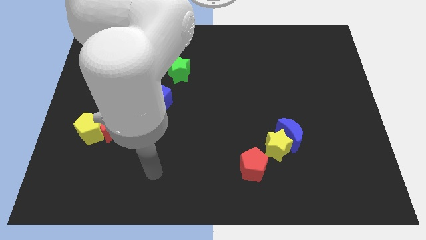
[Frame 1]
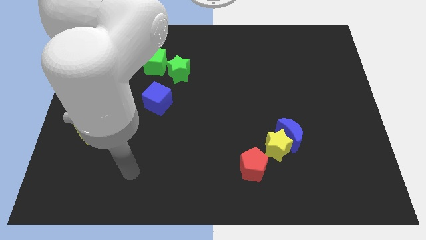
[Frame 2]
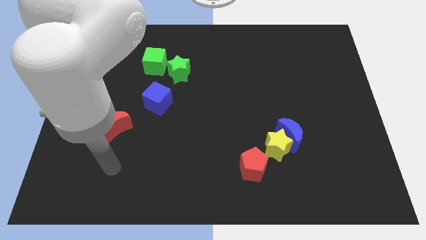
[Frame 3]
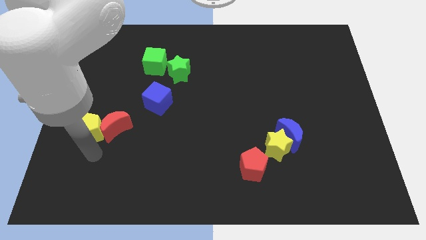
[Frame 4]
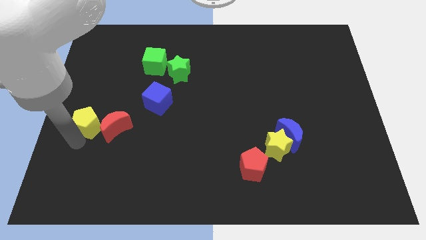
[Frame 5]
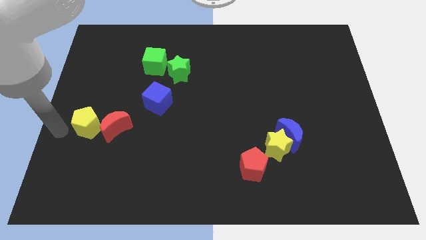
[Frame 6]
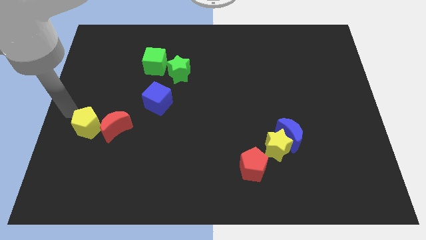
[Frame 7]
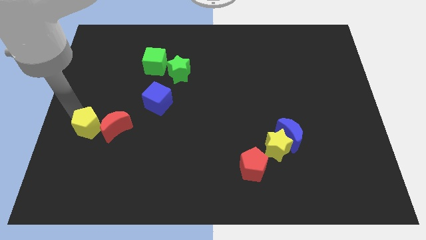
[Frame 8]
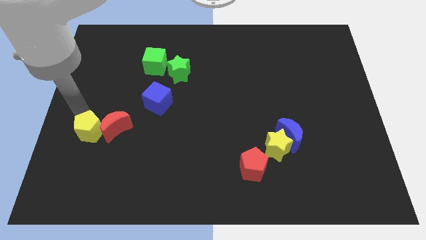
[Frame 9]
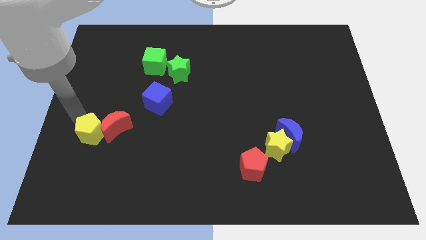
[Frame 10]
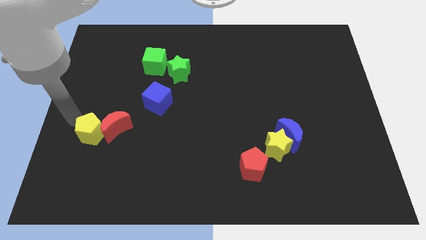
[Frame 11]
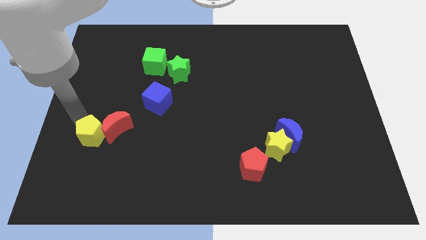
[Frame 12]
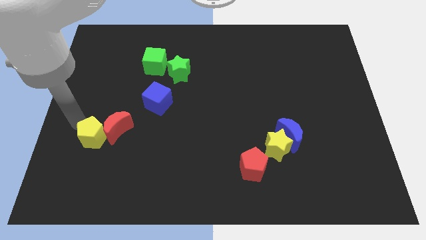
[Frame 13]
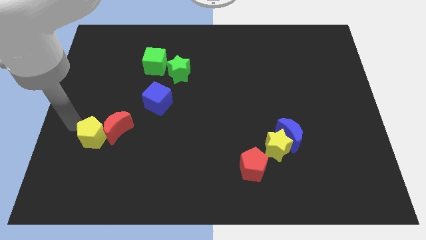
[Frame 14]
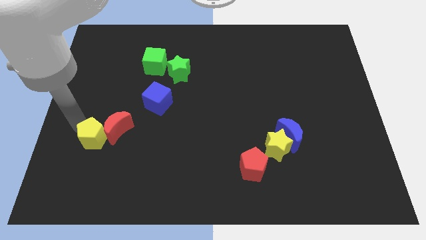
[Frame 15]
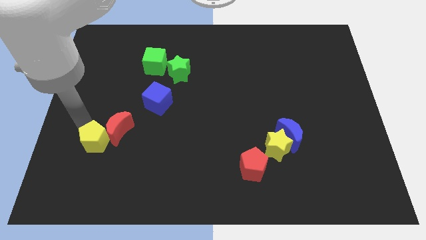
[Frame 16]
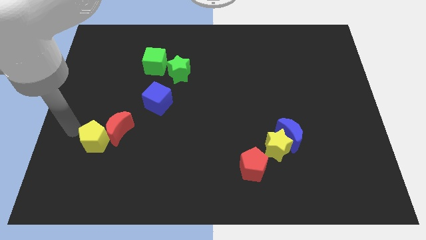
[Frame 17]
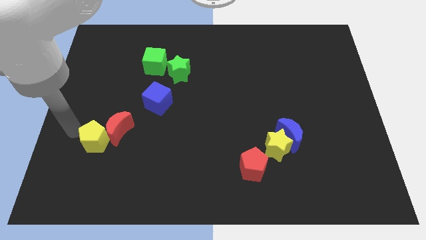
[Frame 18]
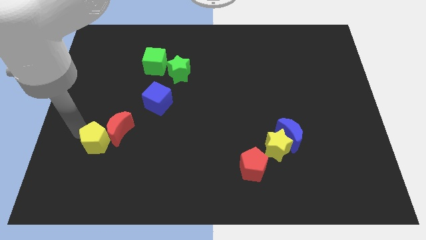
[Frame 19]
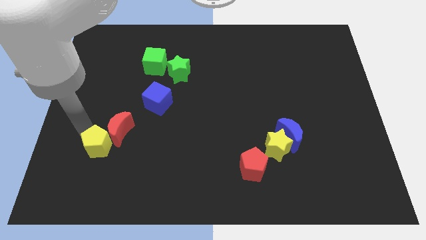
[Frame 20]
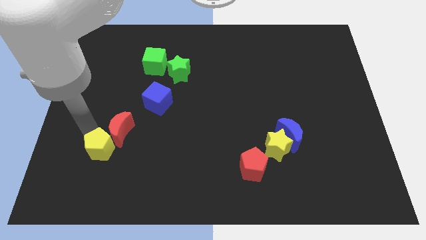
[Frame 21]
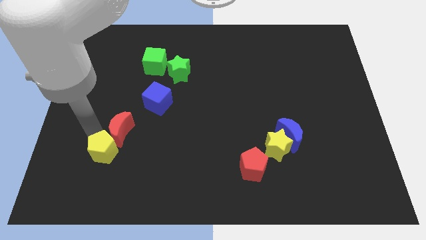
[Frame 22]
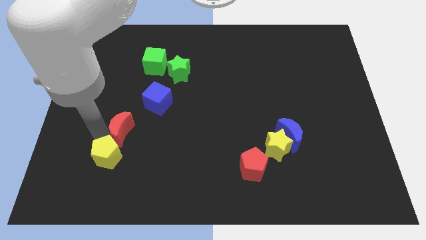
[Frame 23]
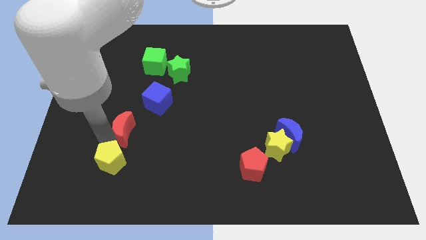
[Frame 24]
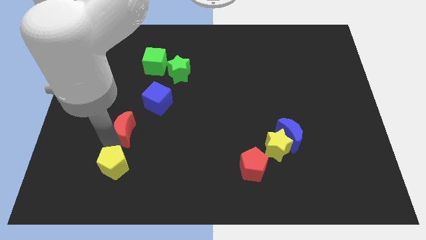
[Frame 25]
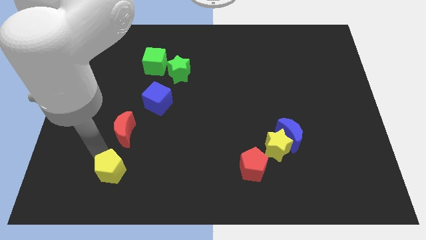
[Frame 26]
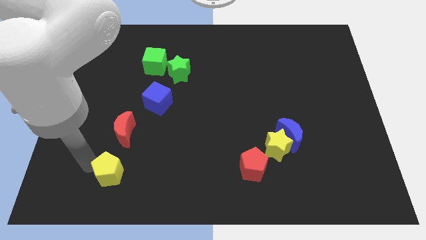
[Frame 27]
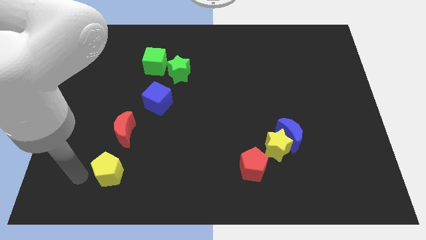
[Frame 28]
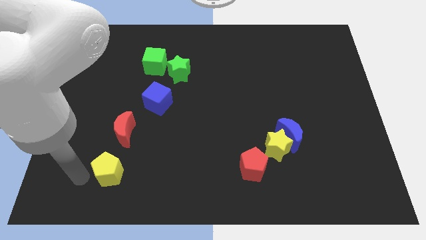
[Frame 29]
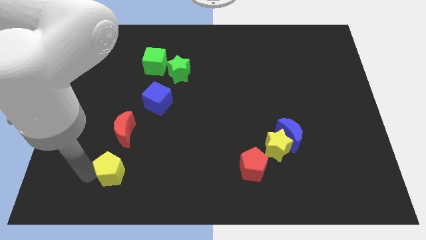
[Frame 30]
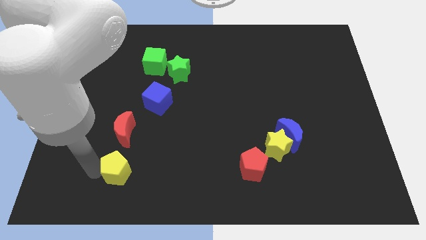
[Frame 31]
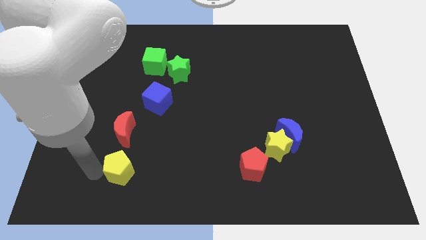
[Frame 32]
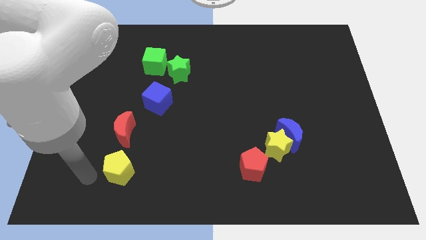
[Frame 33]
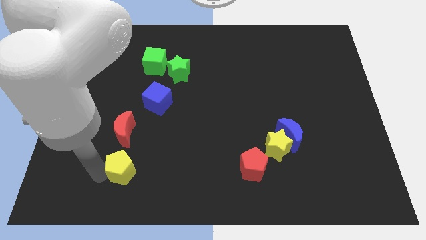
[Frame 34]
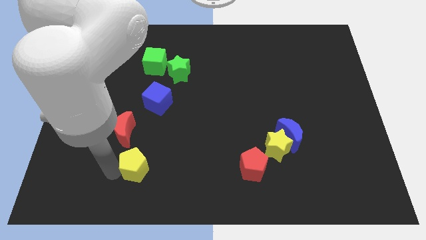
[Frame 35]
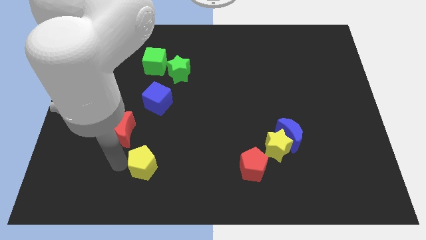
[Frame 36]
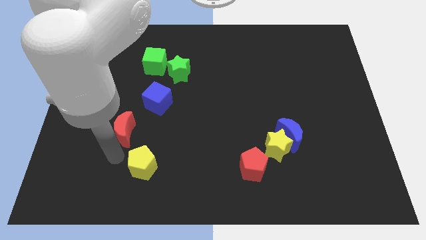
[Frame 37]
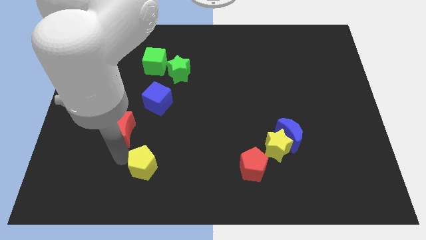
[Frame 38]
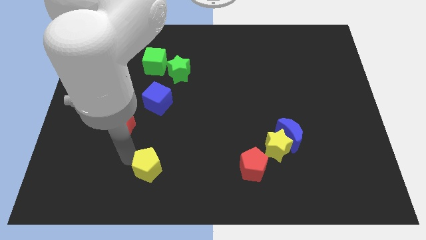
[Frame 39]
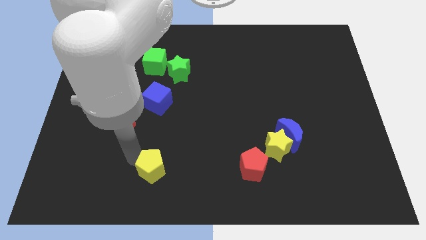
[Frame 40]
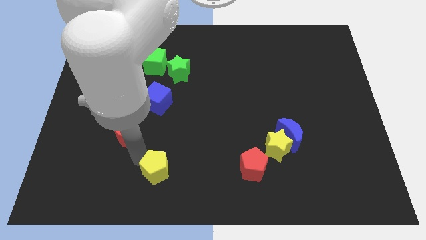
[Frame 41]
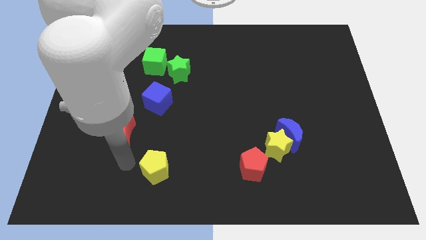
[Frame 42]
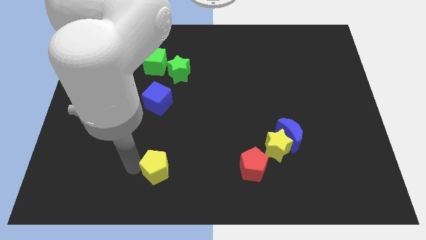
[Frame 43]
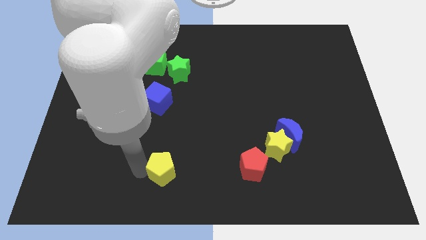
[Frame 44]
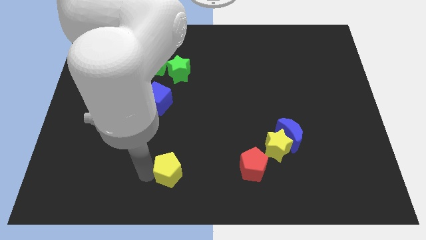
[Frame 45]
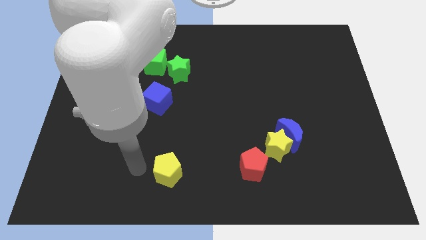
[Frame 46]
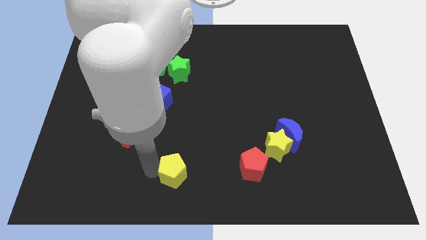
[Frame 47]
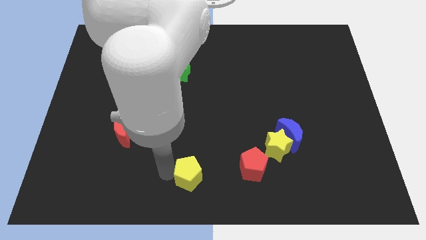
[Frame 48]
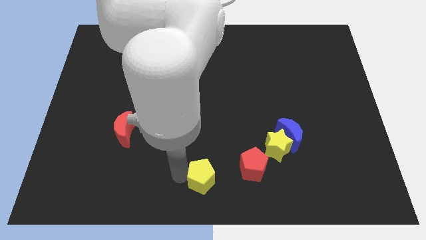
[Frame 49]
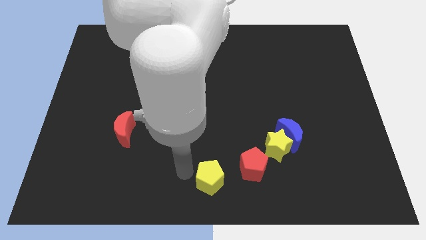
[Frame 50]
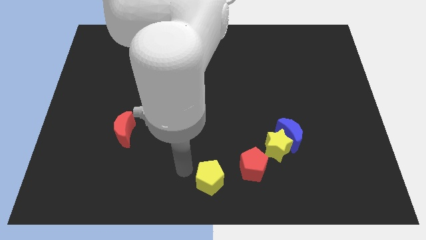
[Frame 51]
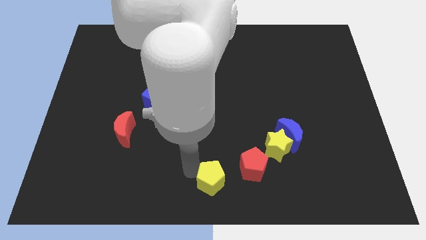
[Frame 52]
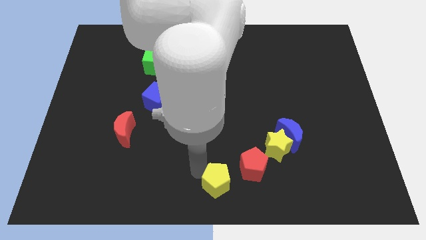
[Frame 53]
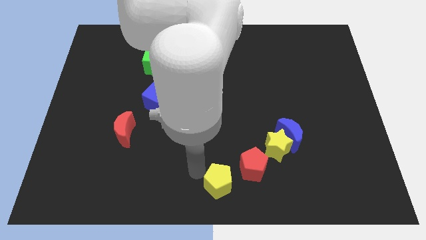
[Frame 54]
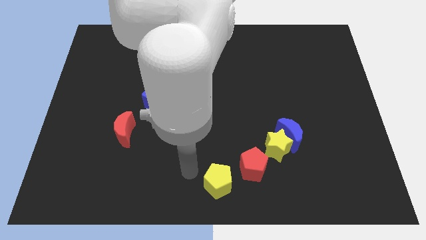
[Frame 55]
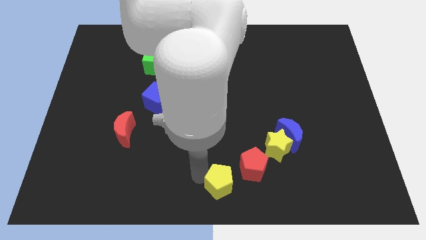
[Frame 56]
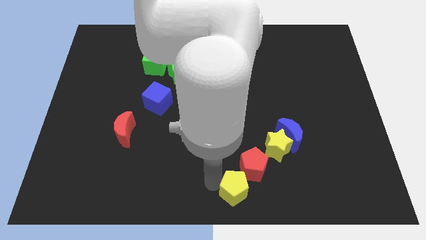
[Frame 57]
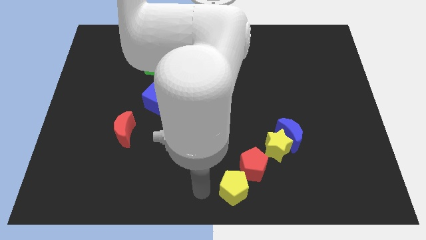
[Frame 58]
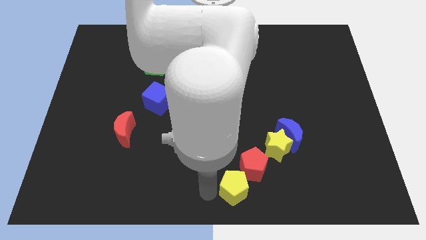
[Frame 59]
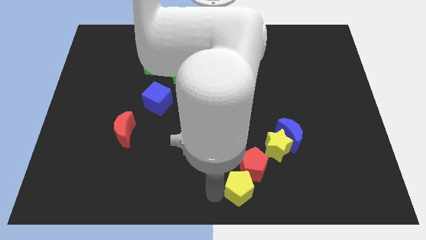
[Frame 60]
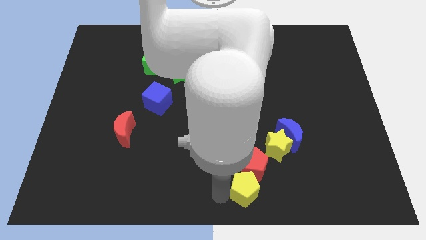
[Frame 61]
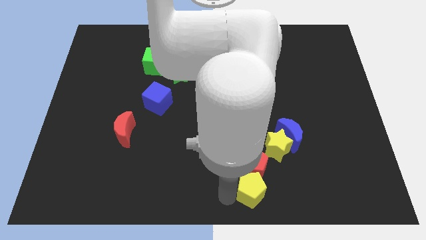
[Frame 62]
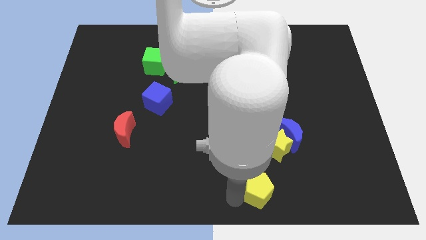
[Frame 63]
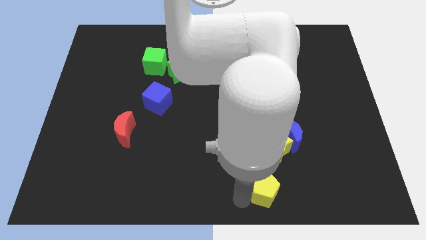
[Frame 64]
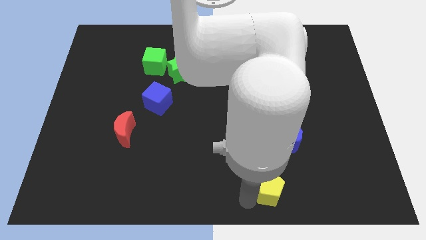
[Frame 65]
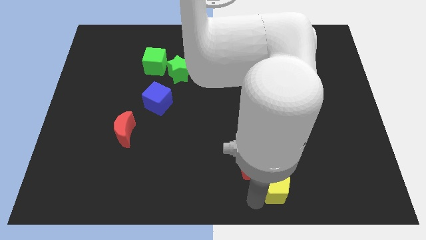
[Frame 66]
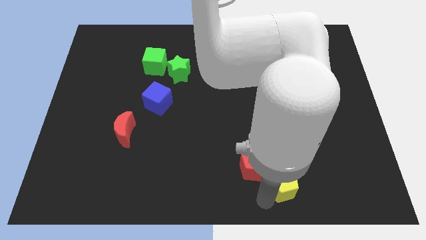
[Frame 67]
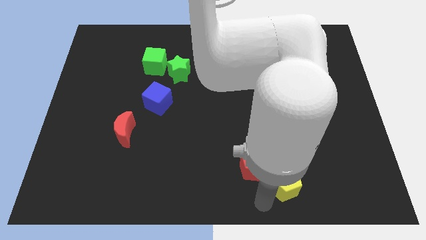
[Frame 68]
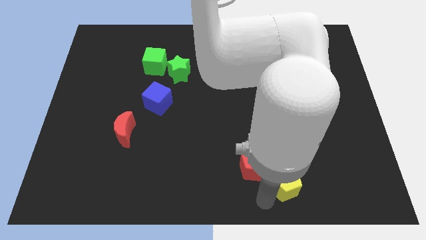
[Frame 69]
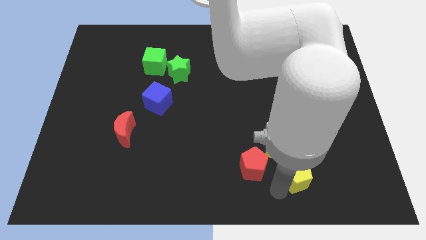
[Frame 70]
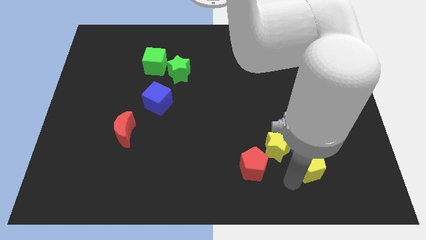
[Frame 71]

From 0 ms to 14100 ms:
move the yellow pentagon just right of the yellow star
